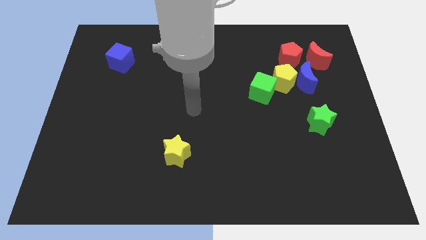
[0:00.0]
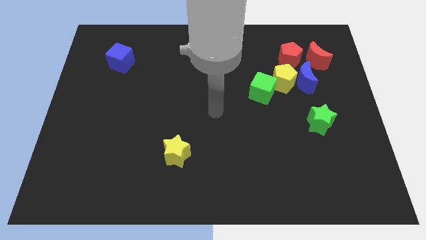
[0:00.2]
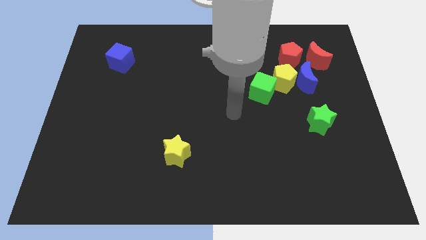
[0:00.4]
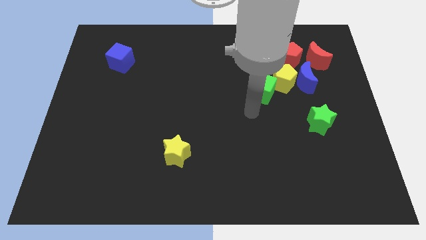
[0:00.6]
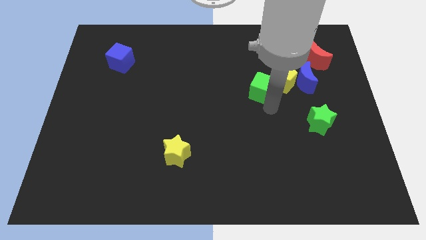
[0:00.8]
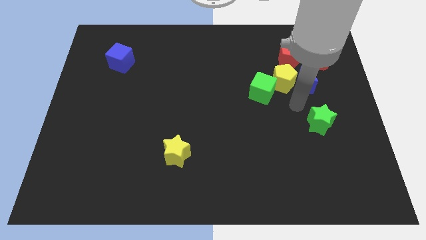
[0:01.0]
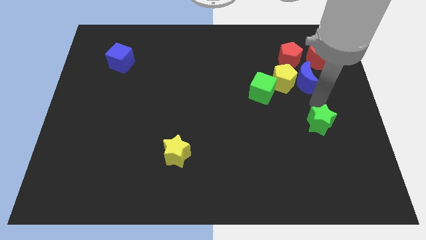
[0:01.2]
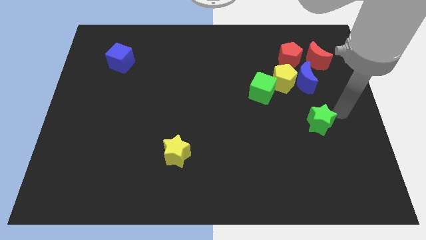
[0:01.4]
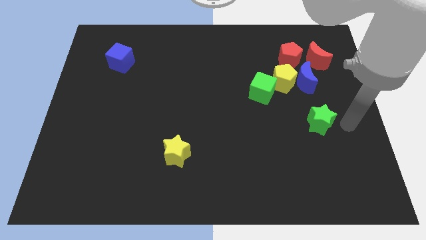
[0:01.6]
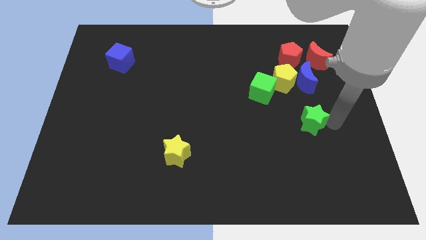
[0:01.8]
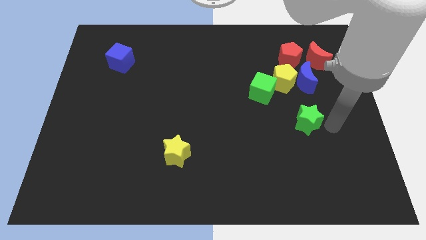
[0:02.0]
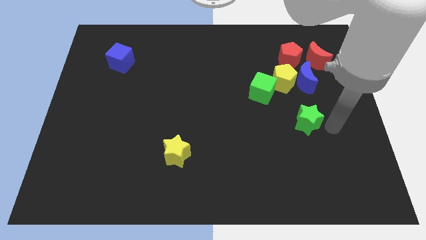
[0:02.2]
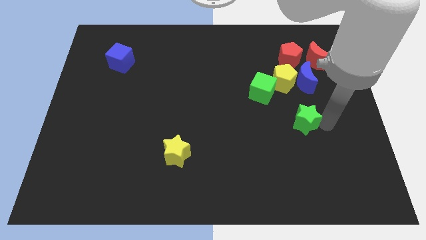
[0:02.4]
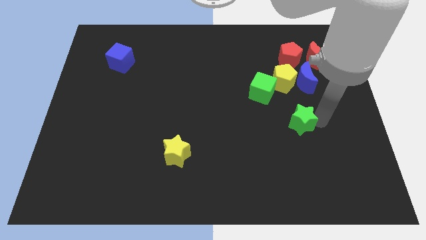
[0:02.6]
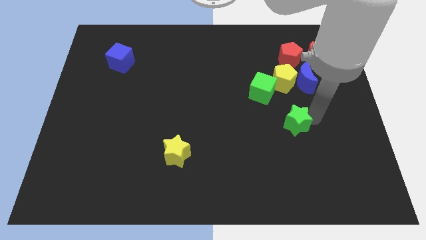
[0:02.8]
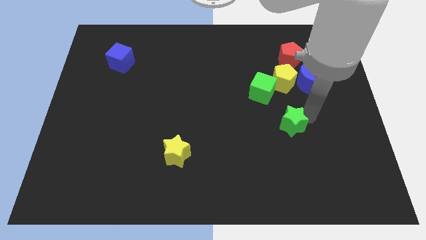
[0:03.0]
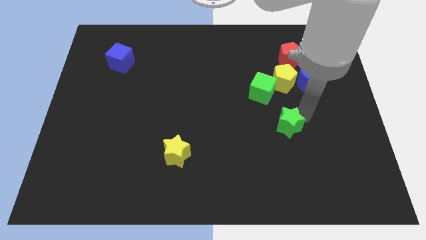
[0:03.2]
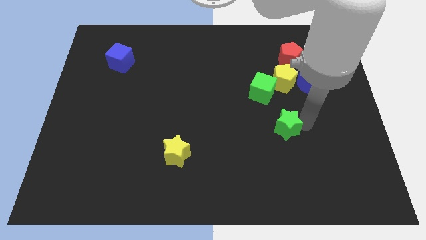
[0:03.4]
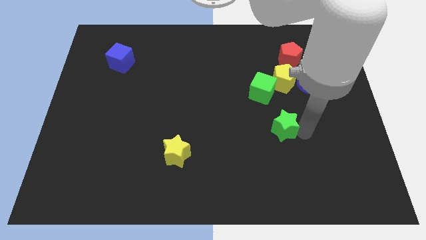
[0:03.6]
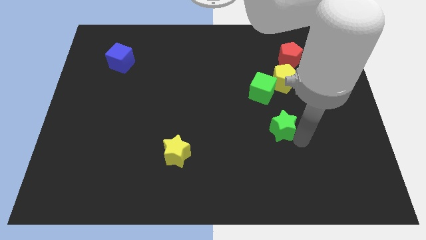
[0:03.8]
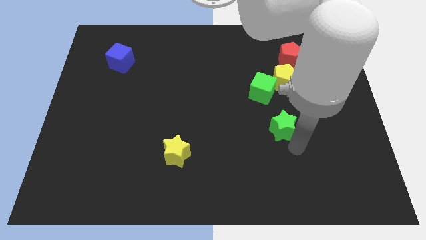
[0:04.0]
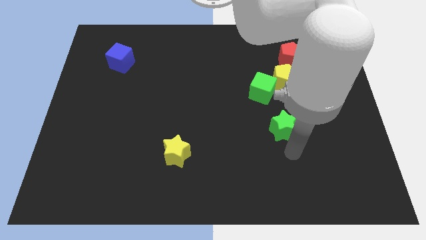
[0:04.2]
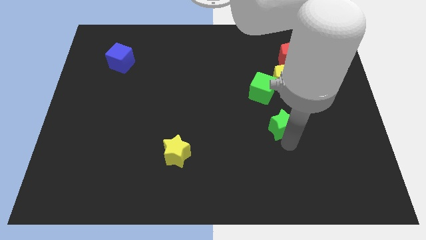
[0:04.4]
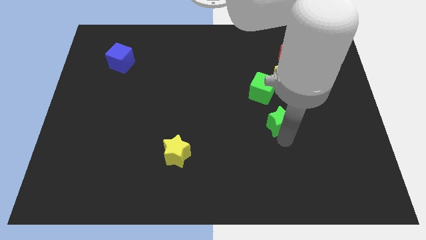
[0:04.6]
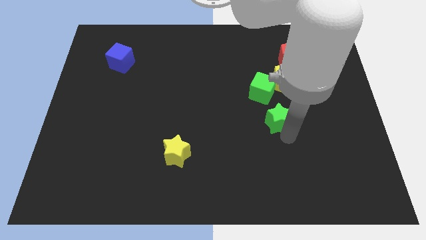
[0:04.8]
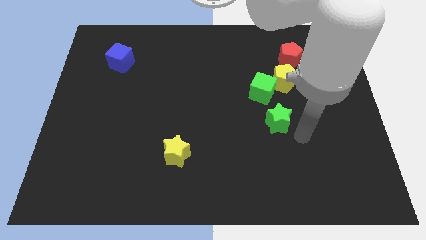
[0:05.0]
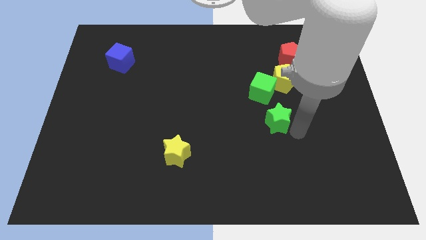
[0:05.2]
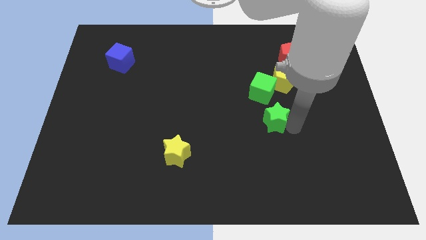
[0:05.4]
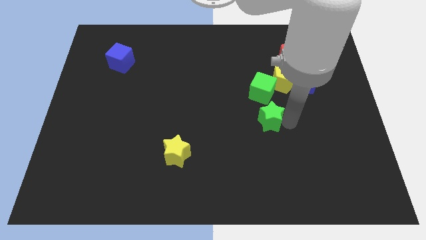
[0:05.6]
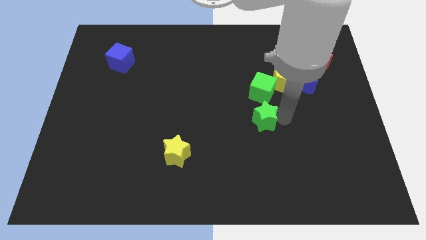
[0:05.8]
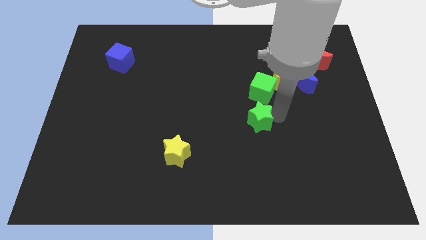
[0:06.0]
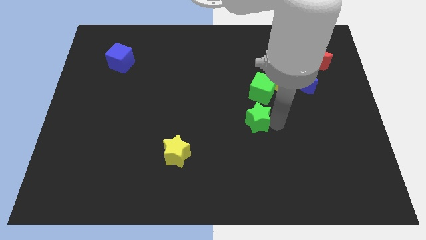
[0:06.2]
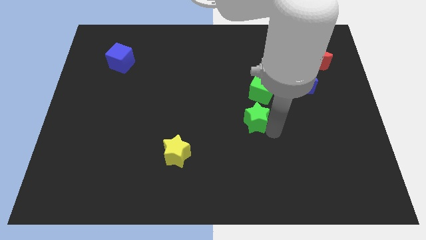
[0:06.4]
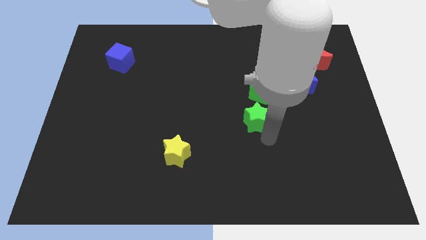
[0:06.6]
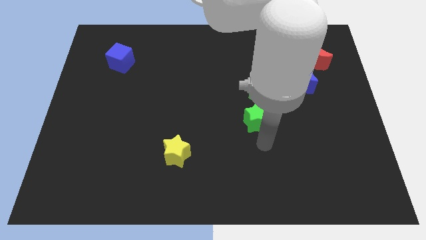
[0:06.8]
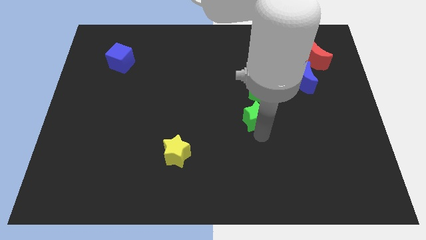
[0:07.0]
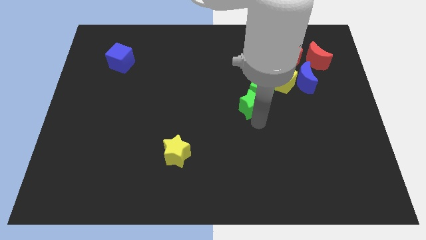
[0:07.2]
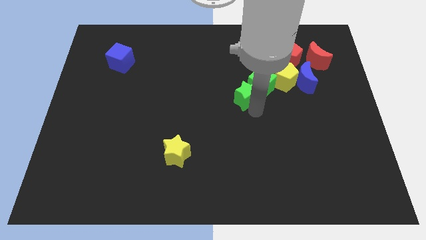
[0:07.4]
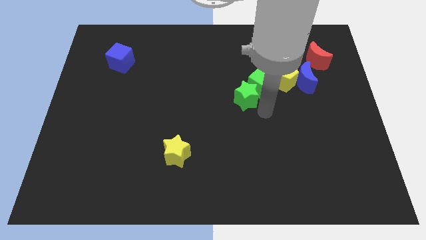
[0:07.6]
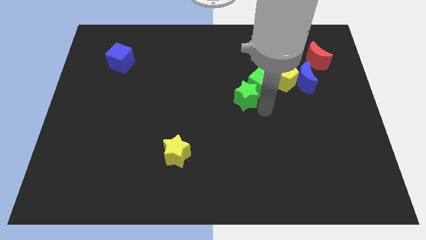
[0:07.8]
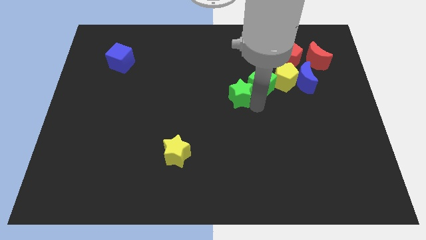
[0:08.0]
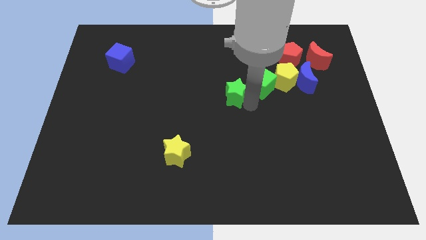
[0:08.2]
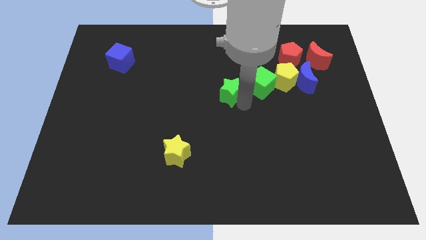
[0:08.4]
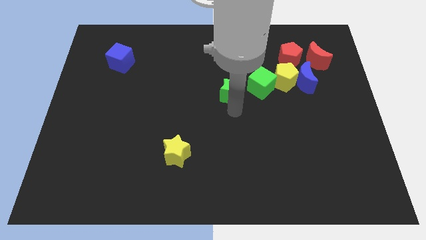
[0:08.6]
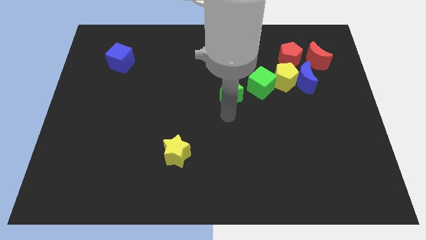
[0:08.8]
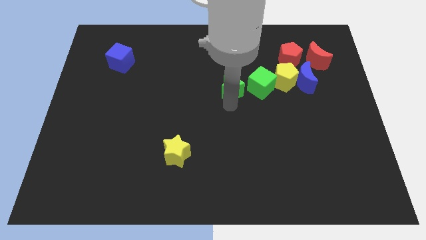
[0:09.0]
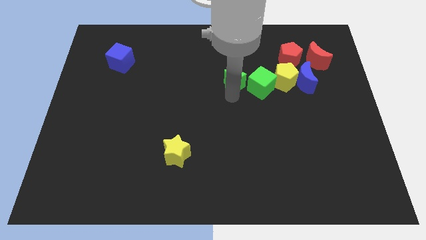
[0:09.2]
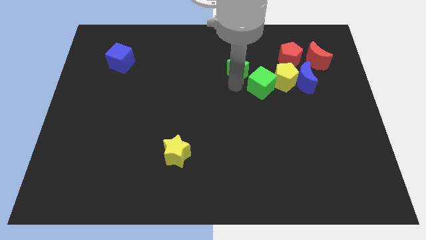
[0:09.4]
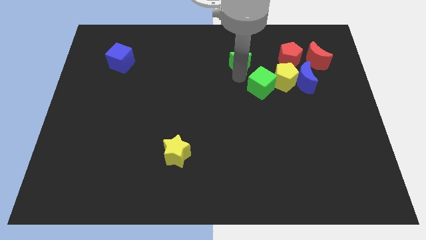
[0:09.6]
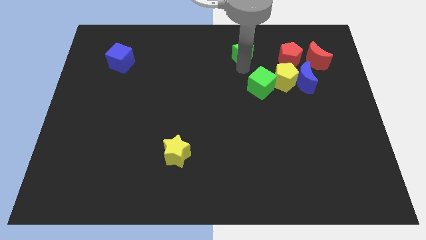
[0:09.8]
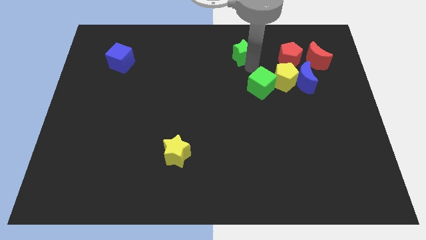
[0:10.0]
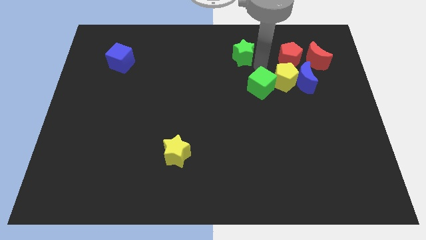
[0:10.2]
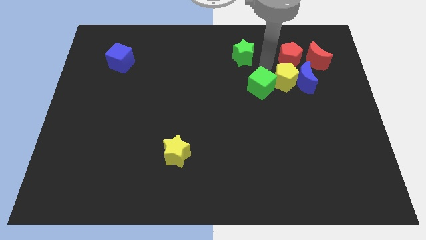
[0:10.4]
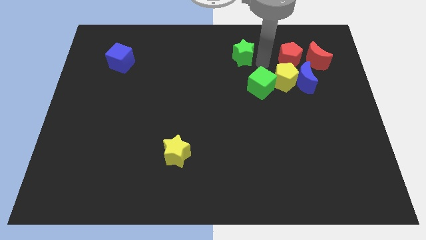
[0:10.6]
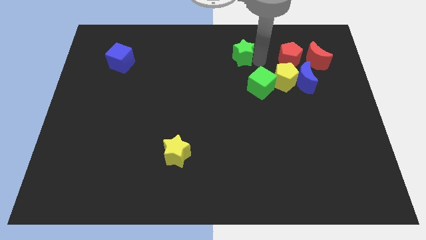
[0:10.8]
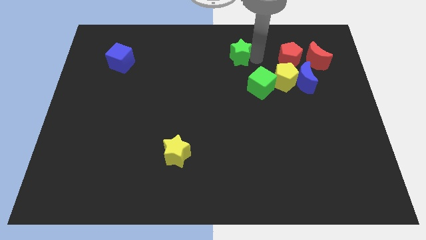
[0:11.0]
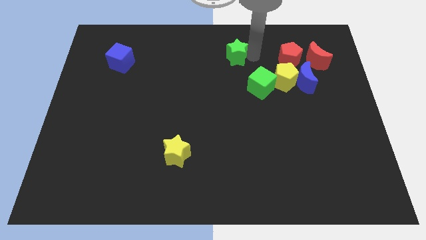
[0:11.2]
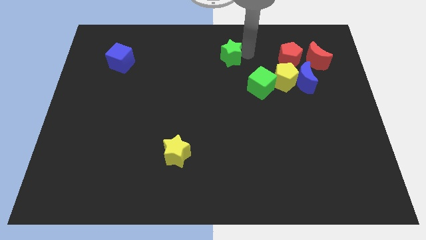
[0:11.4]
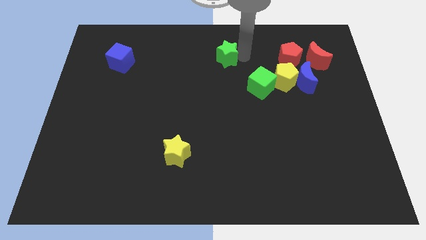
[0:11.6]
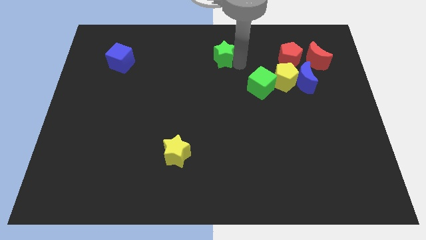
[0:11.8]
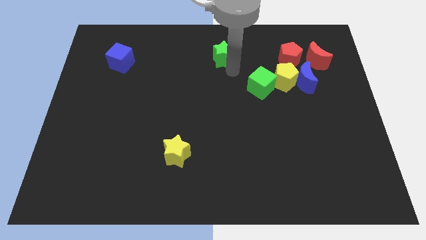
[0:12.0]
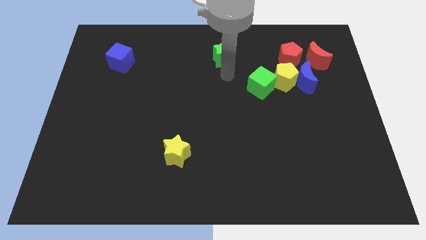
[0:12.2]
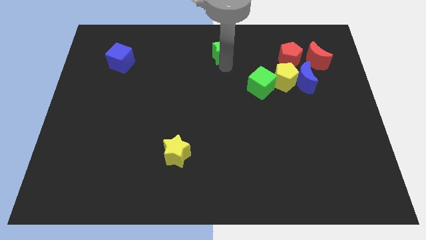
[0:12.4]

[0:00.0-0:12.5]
put the green star to the top side

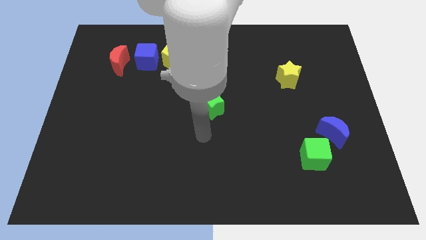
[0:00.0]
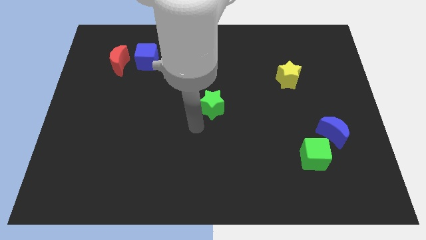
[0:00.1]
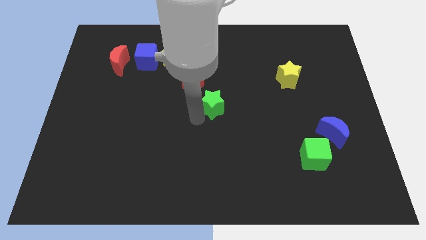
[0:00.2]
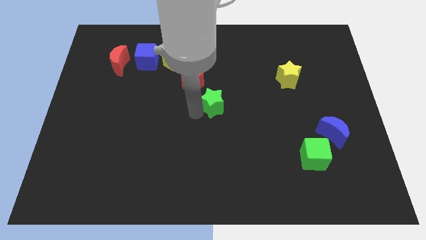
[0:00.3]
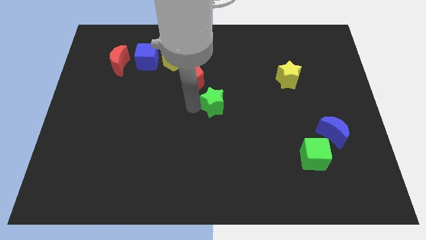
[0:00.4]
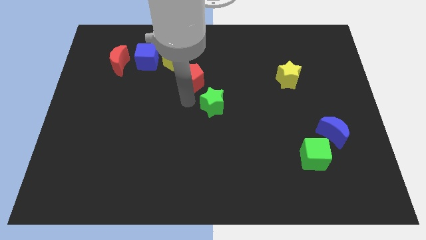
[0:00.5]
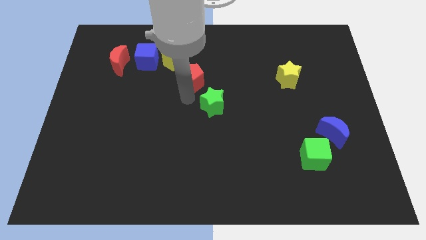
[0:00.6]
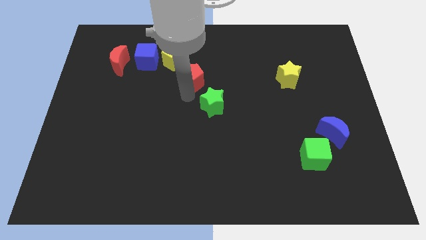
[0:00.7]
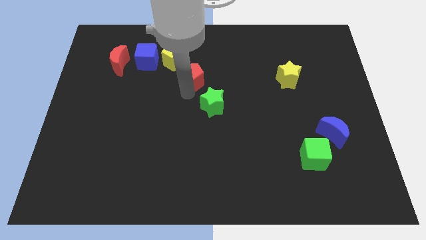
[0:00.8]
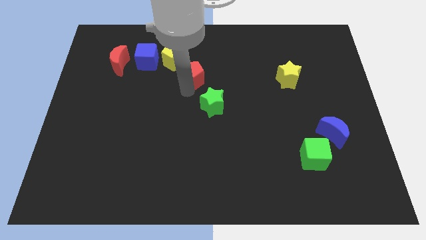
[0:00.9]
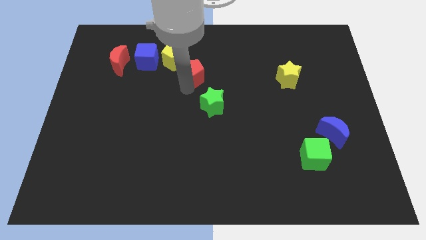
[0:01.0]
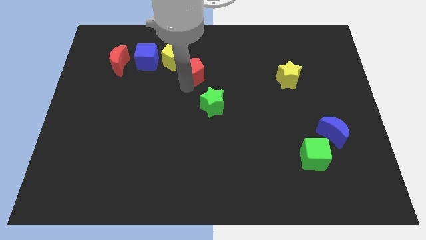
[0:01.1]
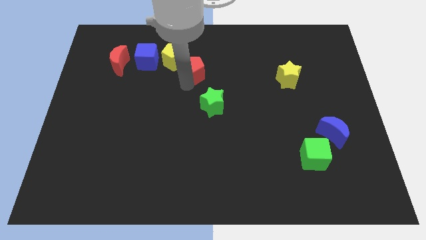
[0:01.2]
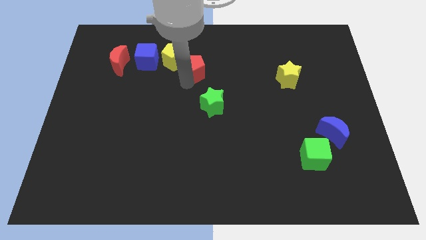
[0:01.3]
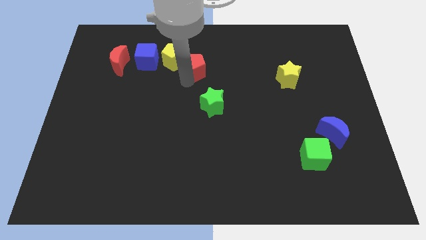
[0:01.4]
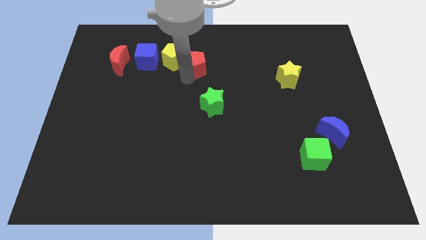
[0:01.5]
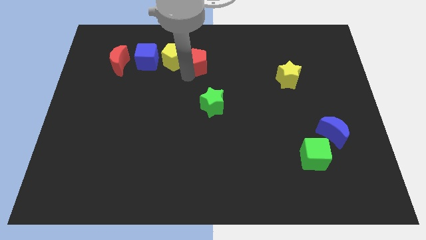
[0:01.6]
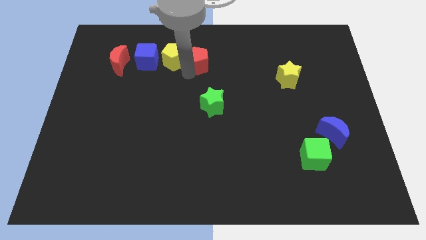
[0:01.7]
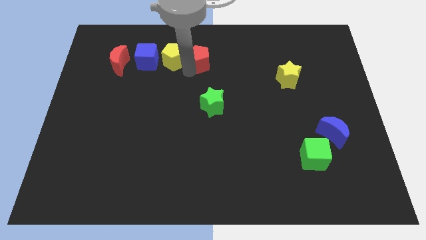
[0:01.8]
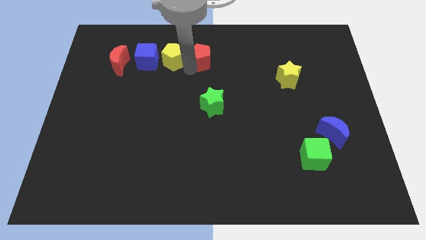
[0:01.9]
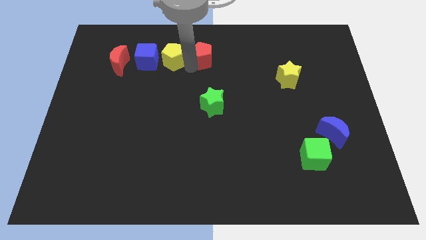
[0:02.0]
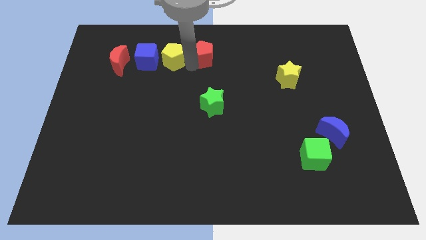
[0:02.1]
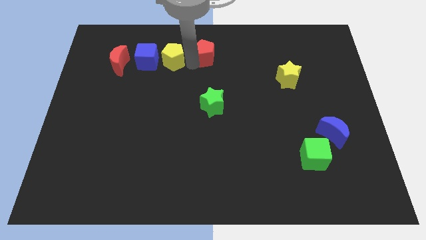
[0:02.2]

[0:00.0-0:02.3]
move the red pentagon to the top
